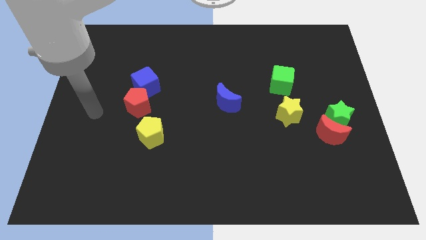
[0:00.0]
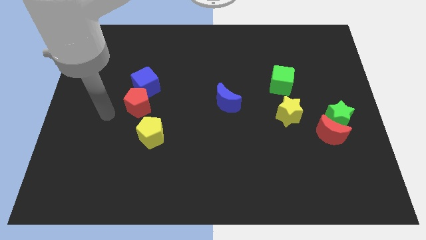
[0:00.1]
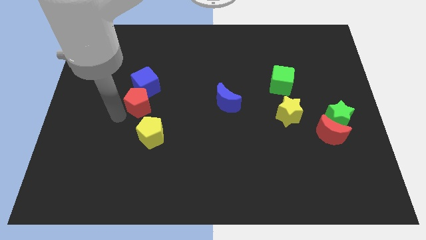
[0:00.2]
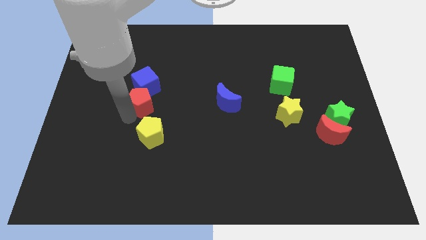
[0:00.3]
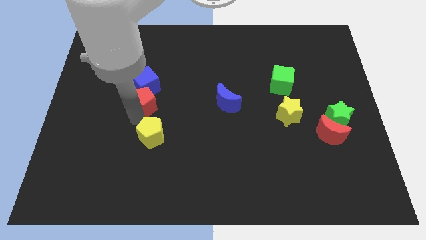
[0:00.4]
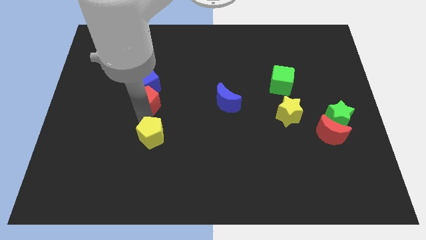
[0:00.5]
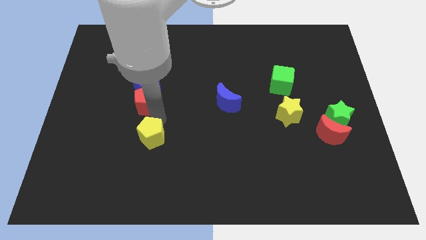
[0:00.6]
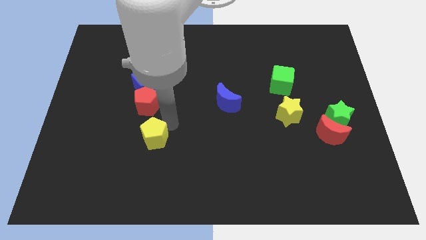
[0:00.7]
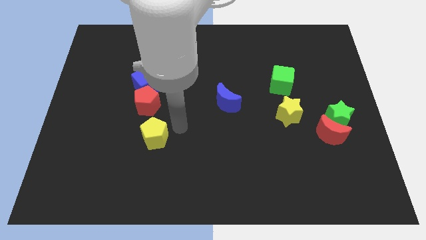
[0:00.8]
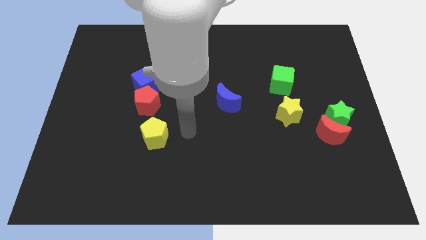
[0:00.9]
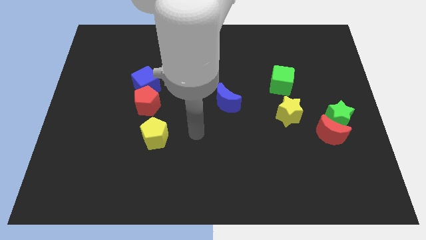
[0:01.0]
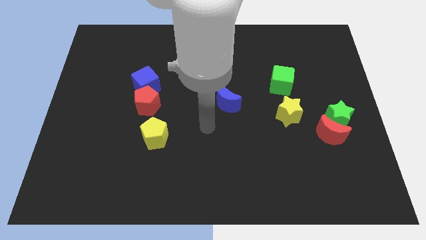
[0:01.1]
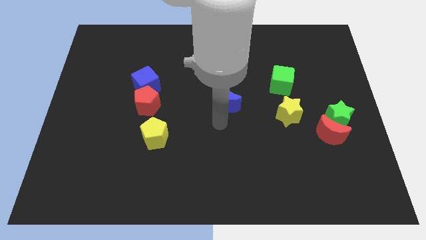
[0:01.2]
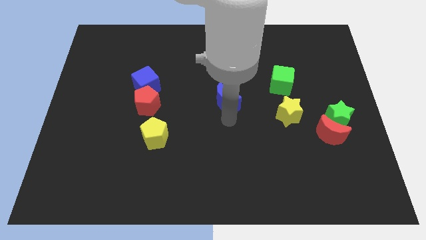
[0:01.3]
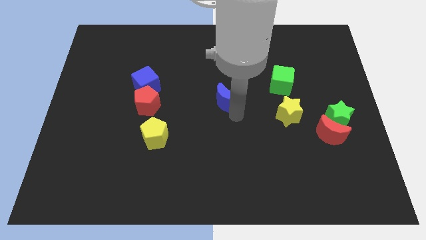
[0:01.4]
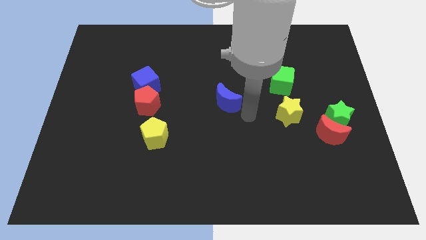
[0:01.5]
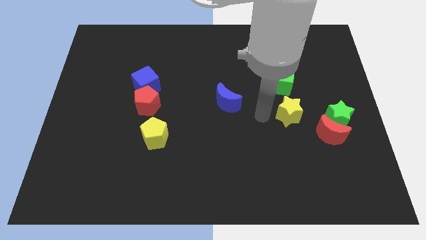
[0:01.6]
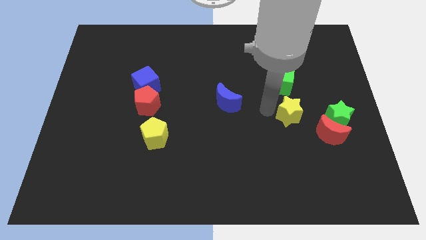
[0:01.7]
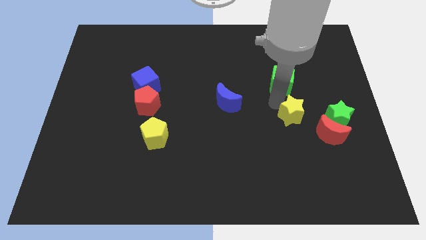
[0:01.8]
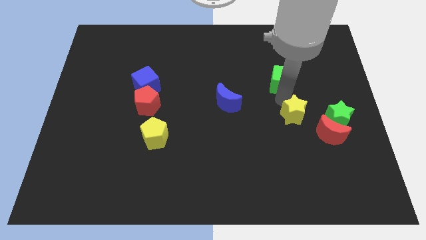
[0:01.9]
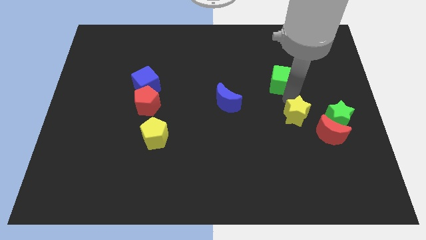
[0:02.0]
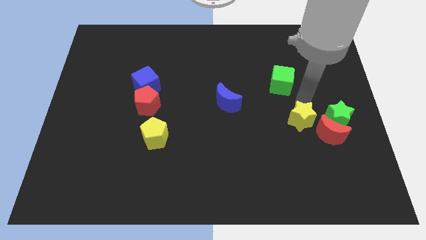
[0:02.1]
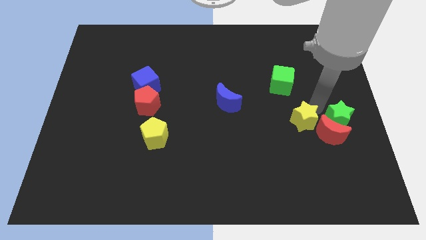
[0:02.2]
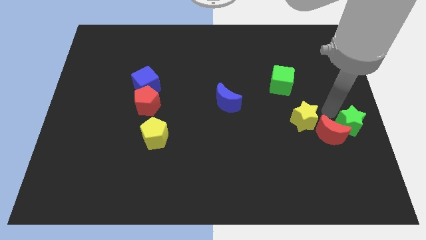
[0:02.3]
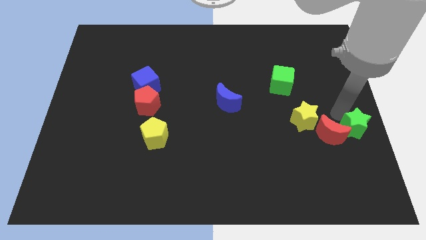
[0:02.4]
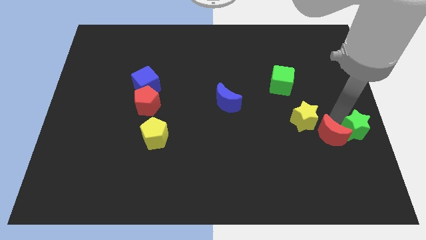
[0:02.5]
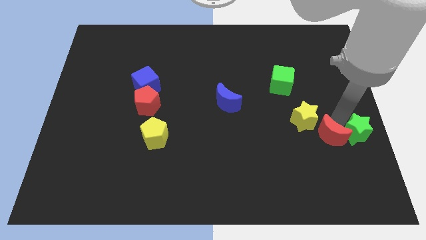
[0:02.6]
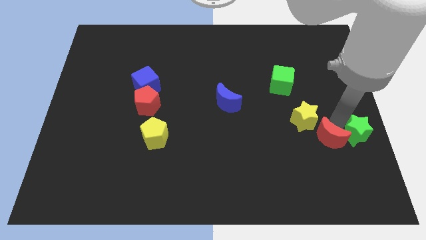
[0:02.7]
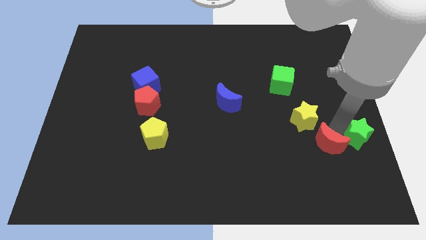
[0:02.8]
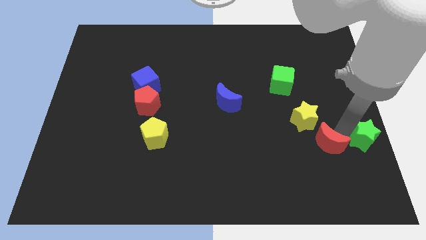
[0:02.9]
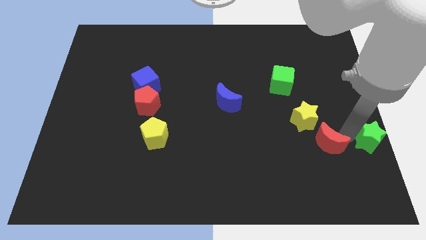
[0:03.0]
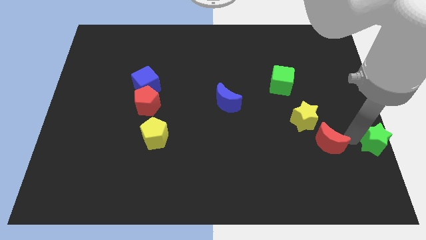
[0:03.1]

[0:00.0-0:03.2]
separate the red moon from the green star

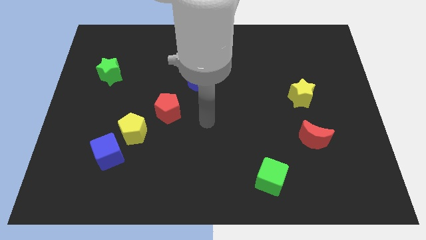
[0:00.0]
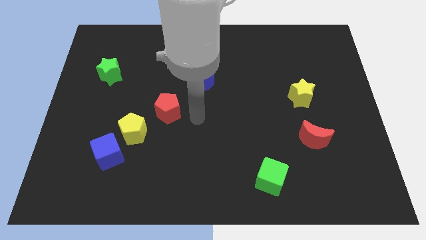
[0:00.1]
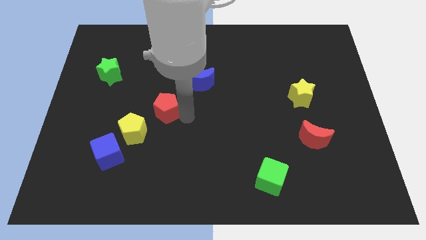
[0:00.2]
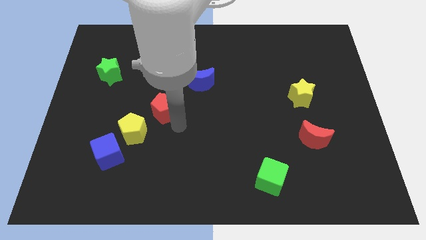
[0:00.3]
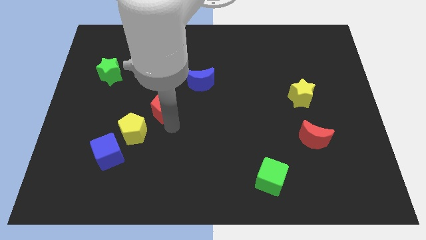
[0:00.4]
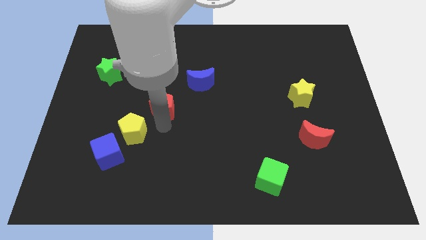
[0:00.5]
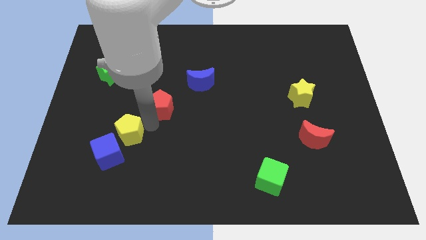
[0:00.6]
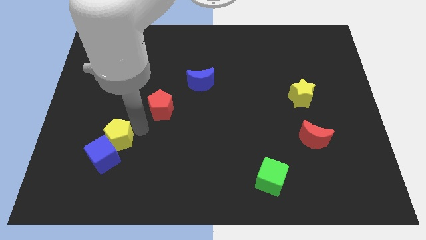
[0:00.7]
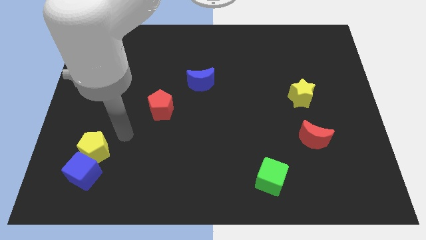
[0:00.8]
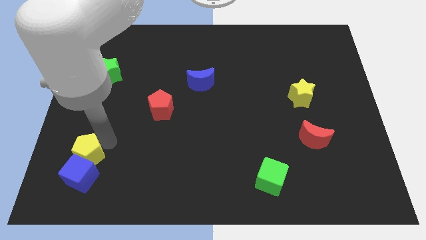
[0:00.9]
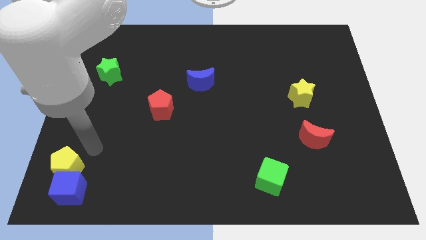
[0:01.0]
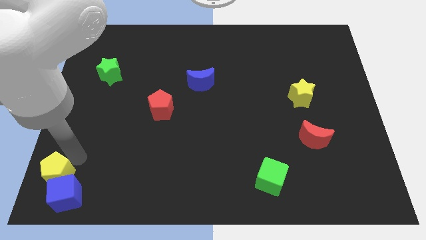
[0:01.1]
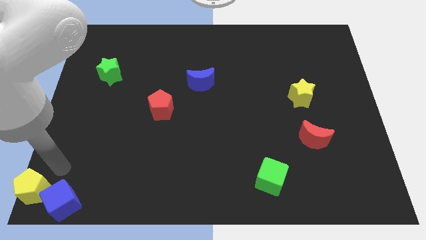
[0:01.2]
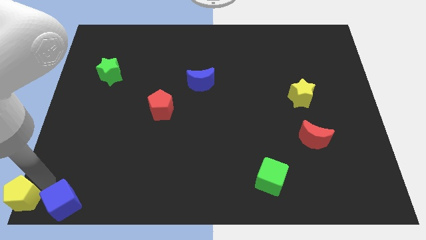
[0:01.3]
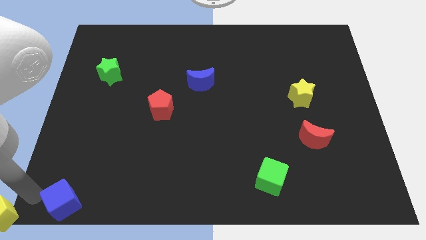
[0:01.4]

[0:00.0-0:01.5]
move the blue cube away from the yellow pentagon

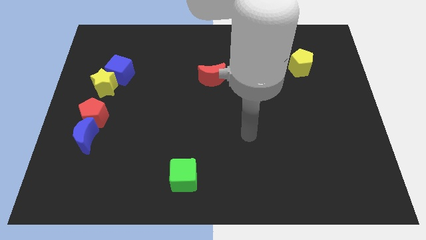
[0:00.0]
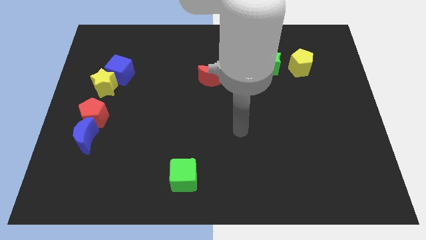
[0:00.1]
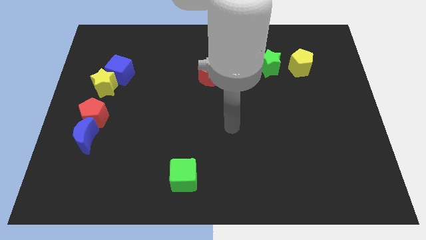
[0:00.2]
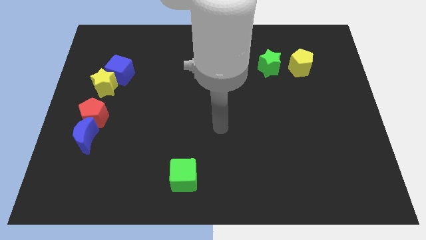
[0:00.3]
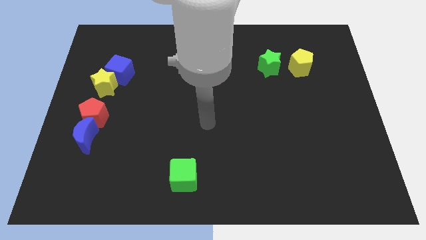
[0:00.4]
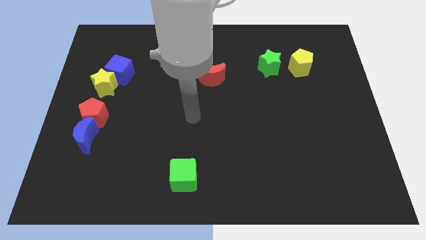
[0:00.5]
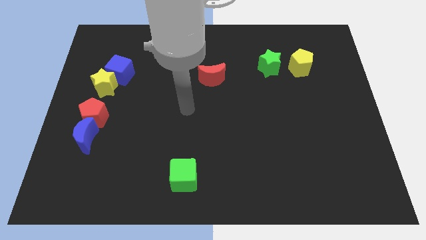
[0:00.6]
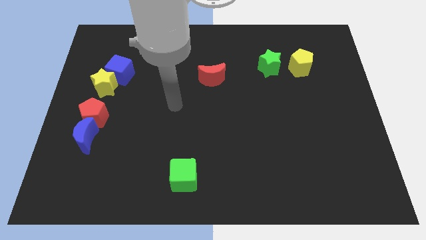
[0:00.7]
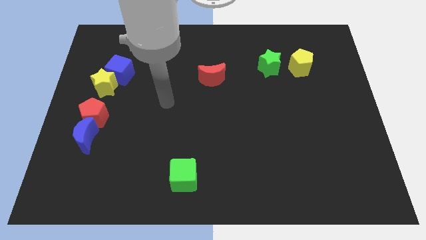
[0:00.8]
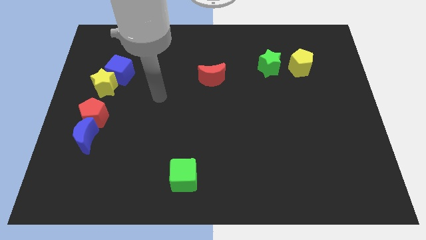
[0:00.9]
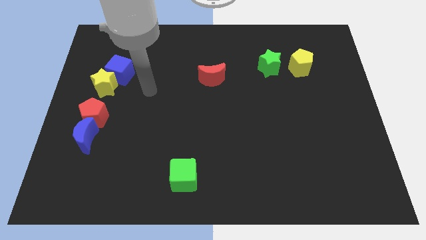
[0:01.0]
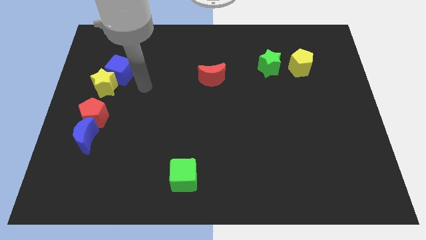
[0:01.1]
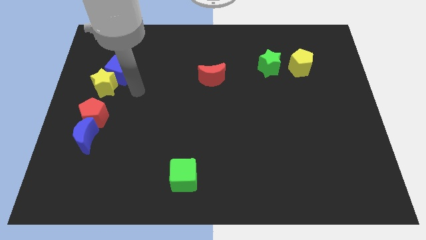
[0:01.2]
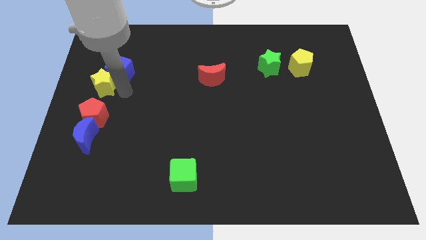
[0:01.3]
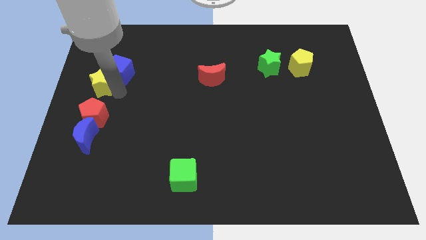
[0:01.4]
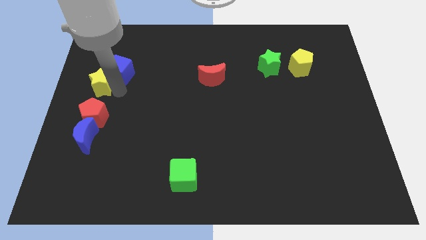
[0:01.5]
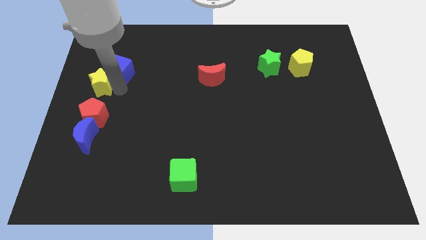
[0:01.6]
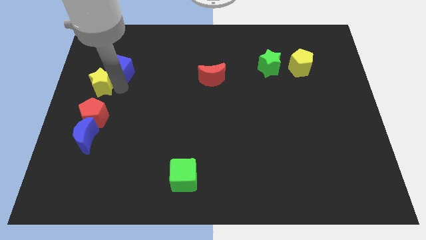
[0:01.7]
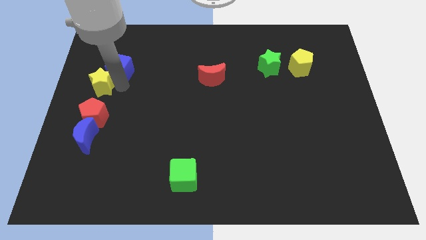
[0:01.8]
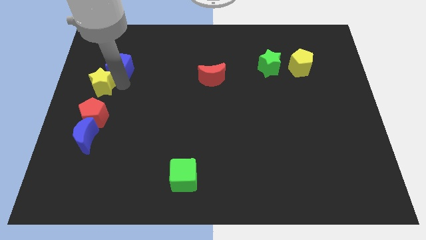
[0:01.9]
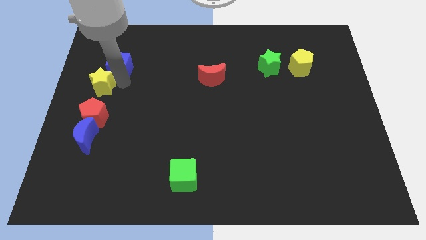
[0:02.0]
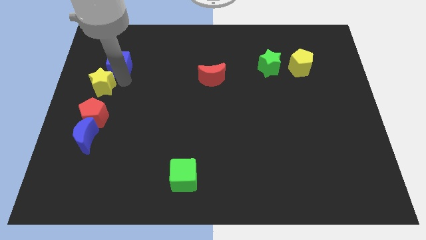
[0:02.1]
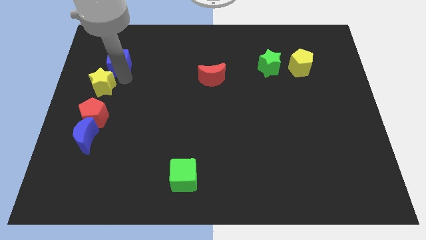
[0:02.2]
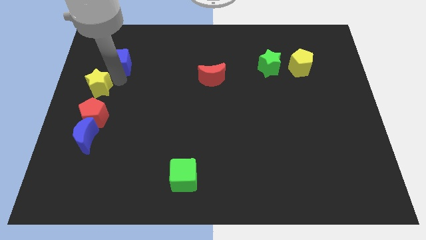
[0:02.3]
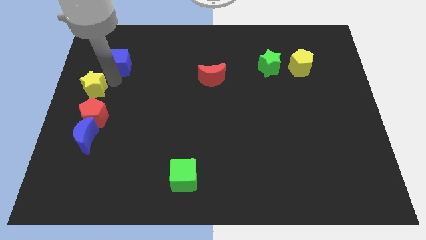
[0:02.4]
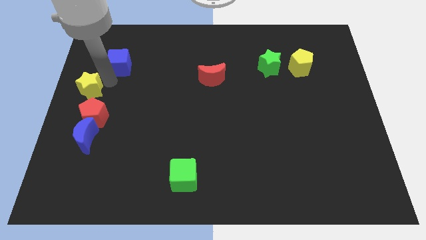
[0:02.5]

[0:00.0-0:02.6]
pull the blue cube apart from the yellow star

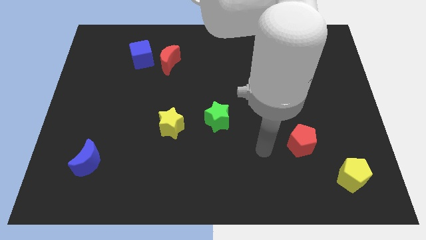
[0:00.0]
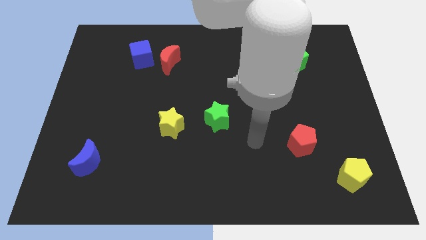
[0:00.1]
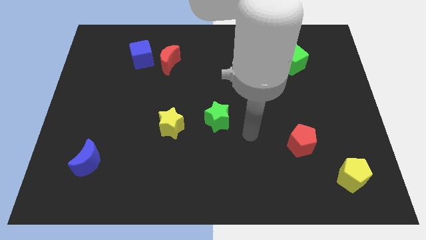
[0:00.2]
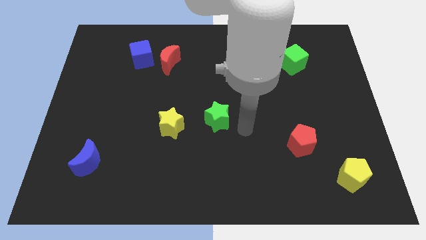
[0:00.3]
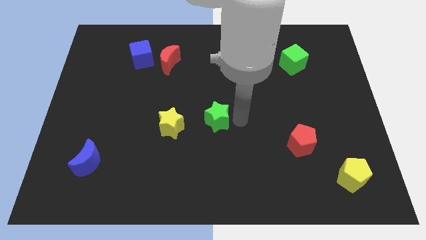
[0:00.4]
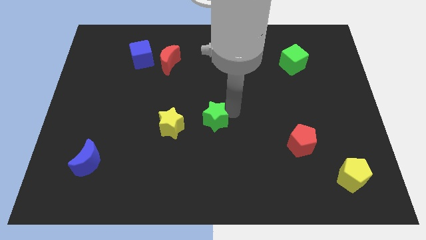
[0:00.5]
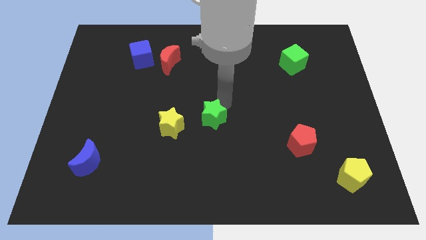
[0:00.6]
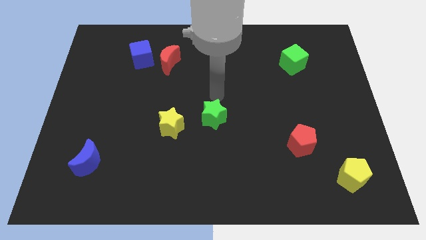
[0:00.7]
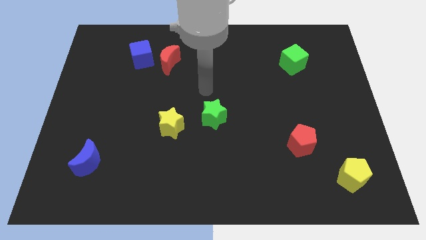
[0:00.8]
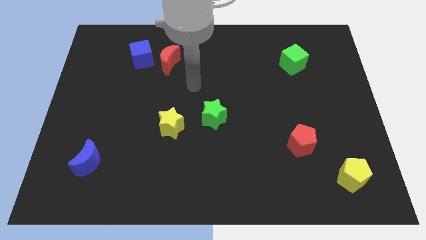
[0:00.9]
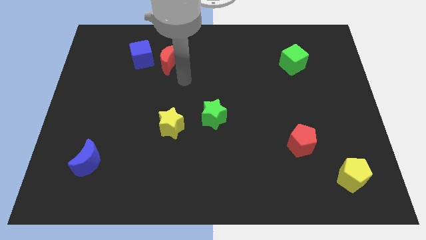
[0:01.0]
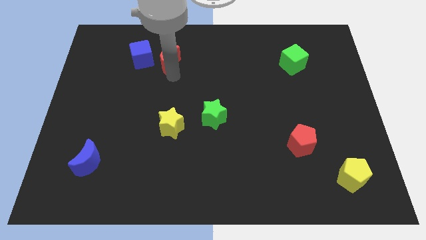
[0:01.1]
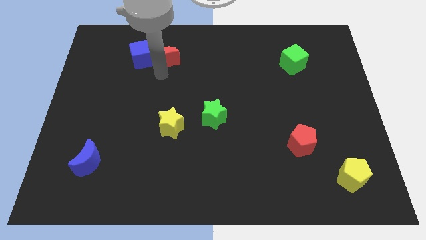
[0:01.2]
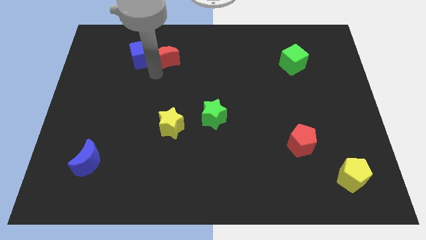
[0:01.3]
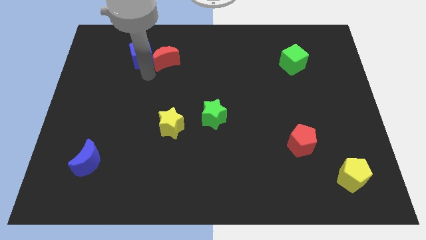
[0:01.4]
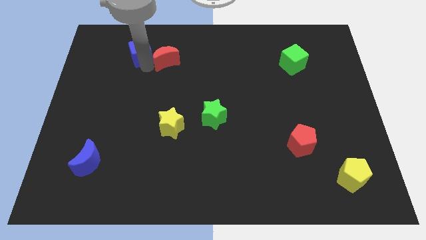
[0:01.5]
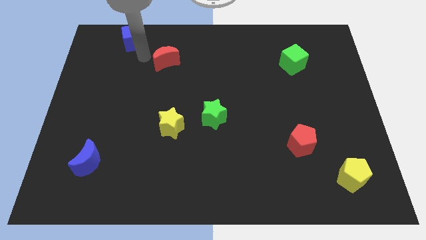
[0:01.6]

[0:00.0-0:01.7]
separate the red moon from the blue cube

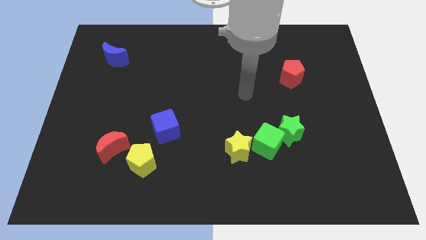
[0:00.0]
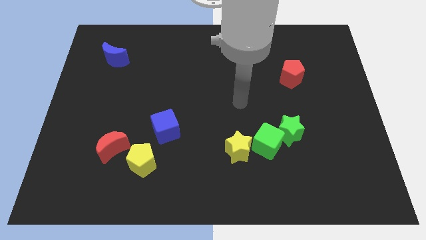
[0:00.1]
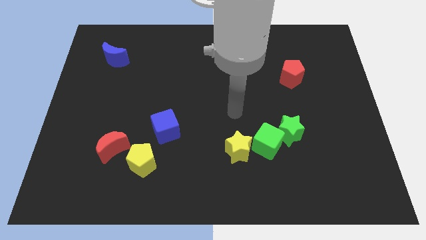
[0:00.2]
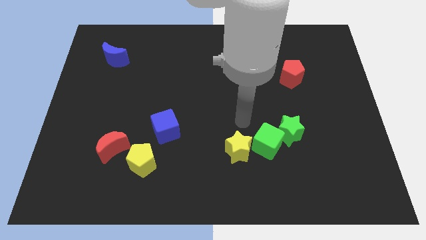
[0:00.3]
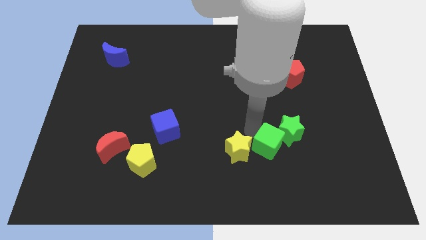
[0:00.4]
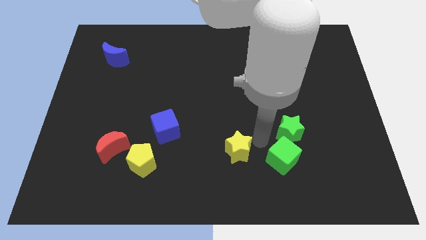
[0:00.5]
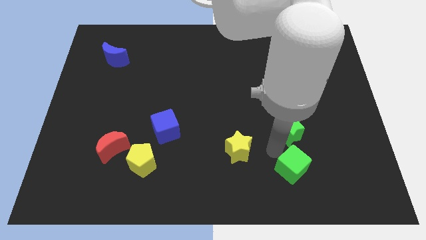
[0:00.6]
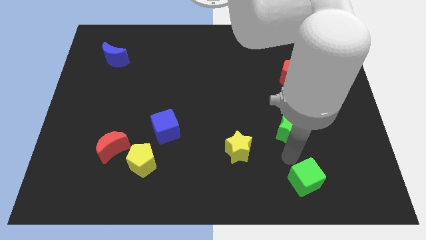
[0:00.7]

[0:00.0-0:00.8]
separate the green star from the green cube
